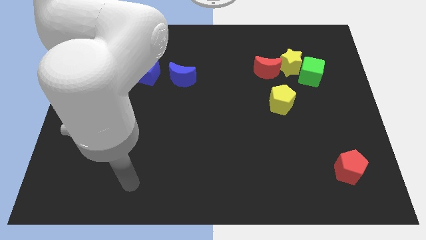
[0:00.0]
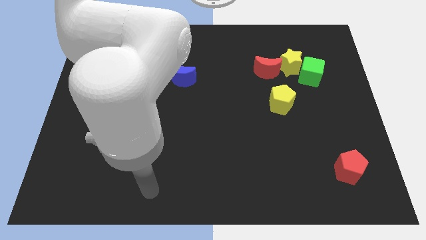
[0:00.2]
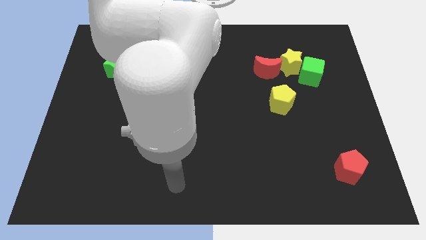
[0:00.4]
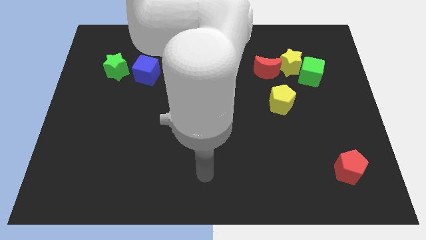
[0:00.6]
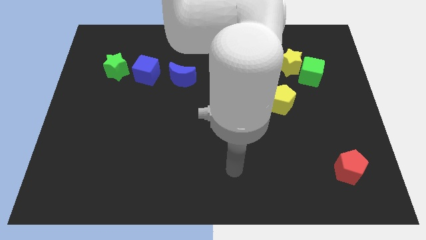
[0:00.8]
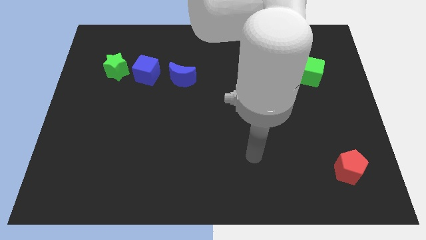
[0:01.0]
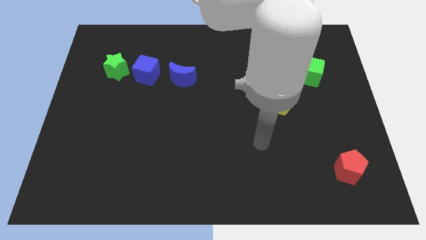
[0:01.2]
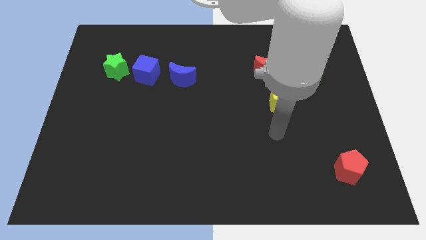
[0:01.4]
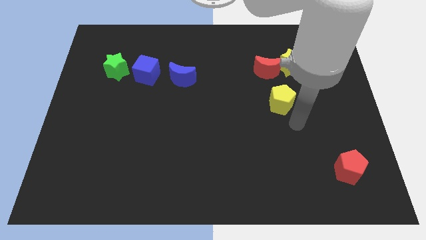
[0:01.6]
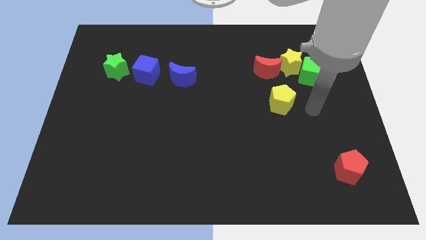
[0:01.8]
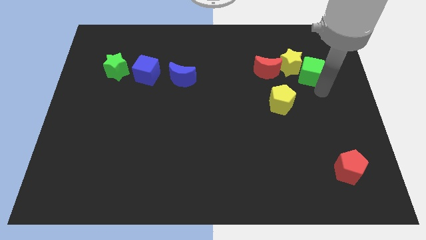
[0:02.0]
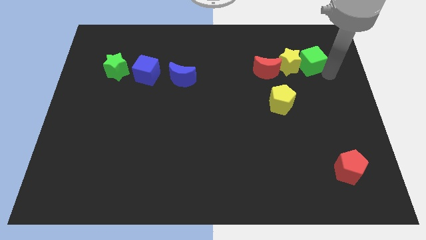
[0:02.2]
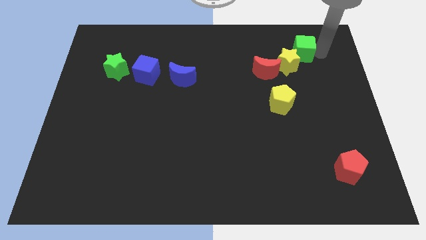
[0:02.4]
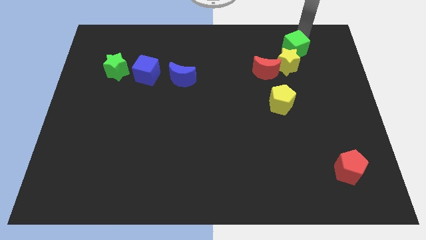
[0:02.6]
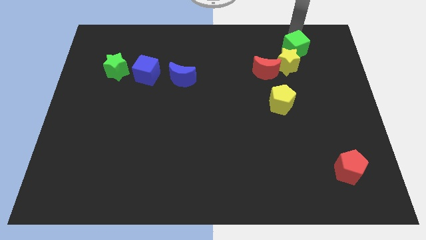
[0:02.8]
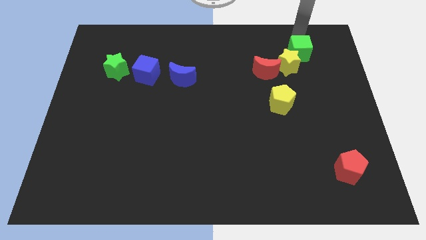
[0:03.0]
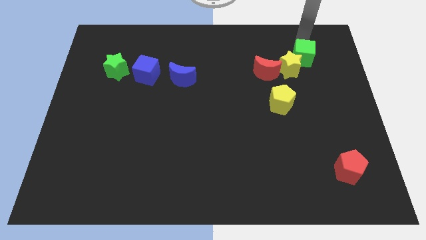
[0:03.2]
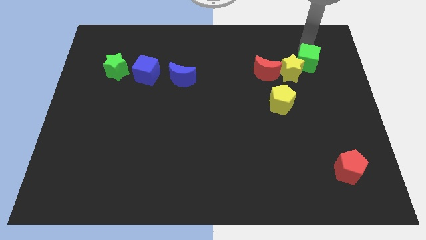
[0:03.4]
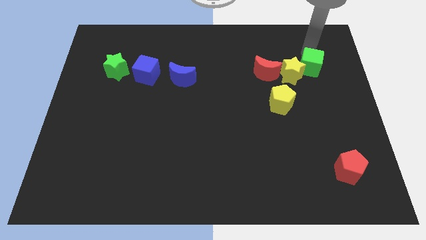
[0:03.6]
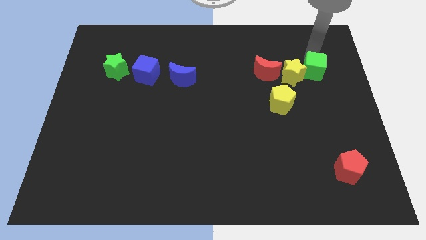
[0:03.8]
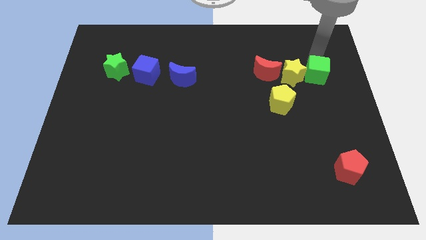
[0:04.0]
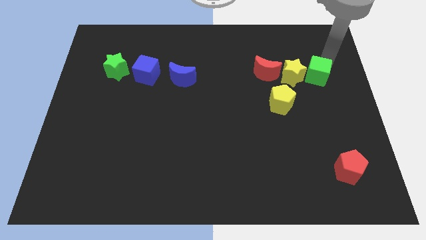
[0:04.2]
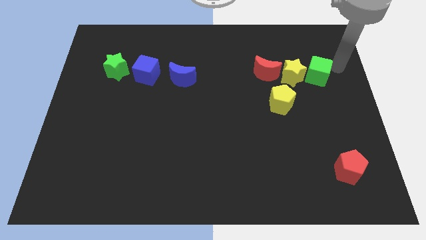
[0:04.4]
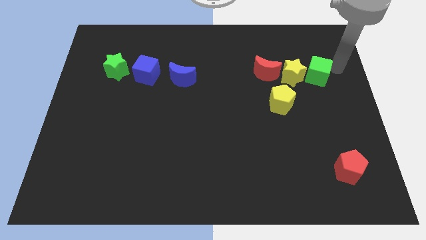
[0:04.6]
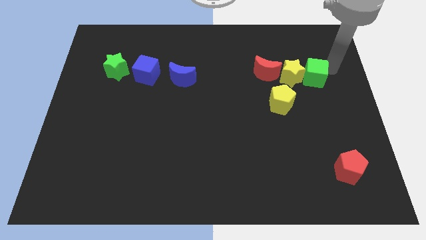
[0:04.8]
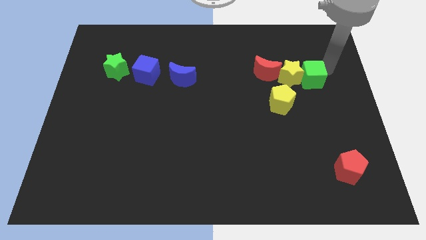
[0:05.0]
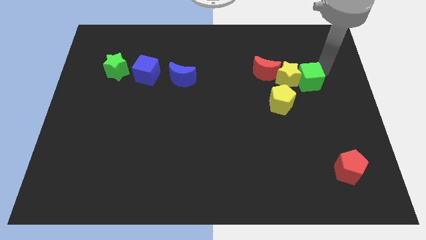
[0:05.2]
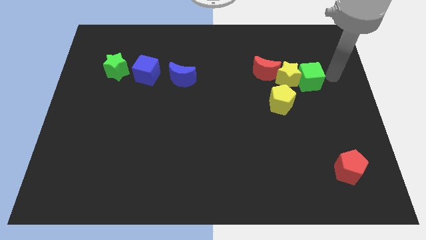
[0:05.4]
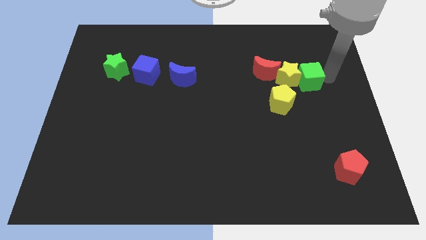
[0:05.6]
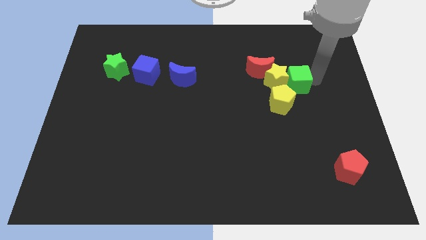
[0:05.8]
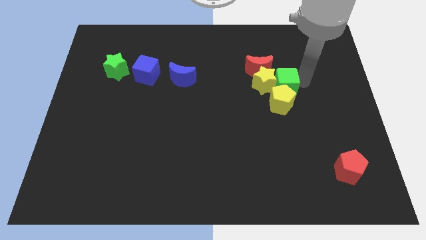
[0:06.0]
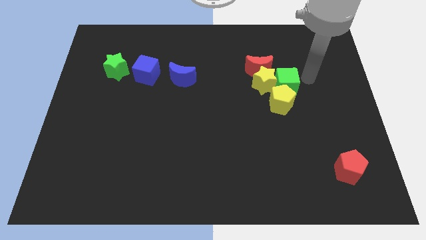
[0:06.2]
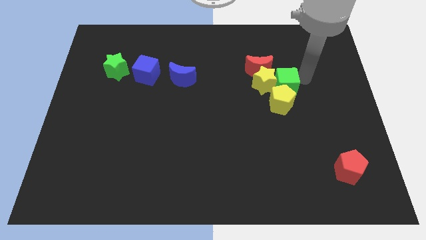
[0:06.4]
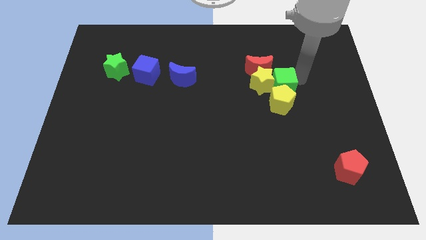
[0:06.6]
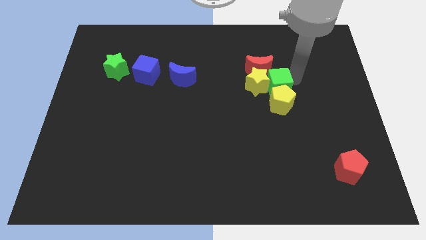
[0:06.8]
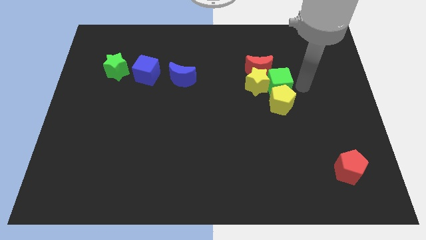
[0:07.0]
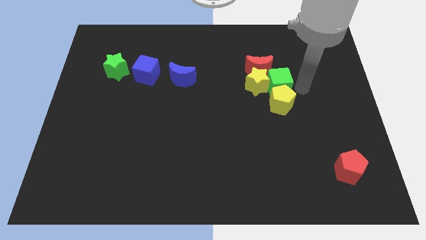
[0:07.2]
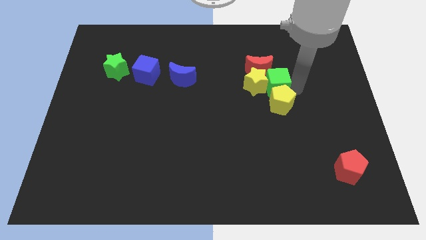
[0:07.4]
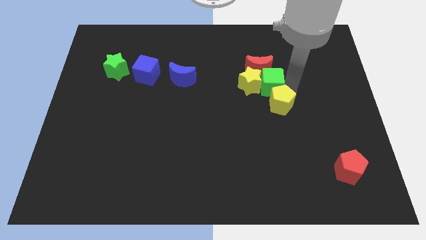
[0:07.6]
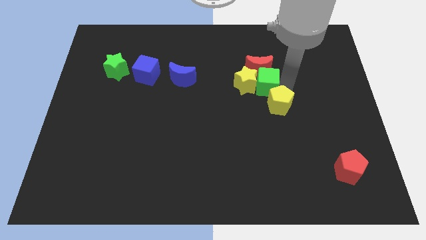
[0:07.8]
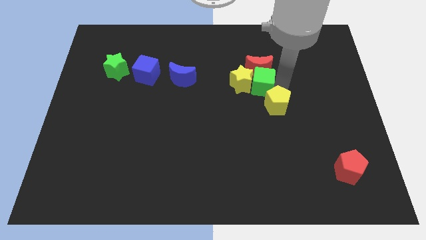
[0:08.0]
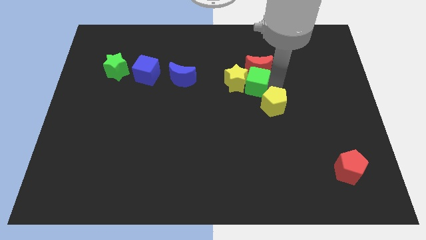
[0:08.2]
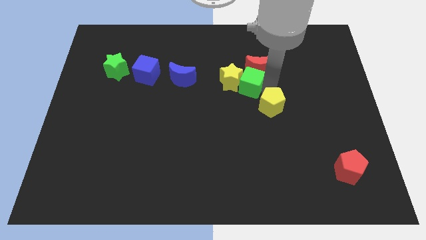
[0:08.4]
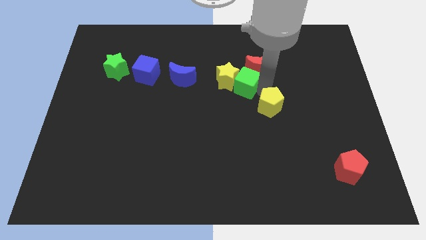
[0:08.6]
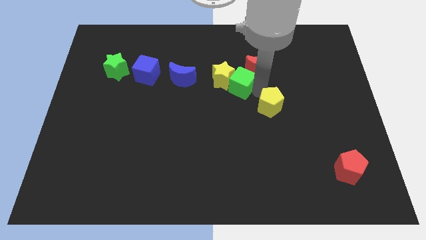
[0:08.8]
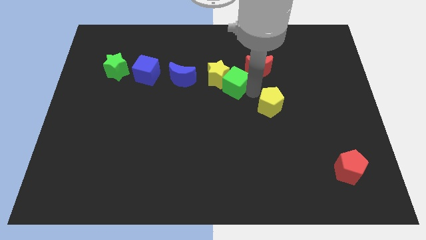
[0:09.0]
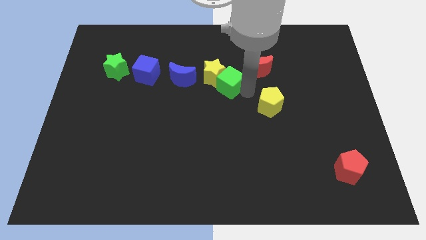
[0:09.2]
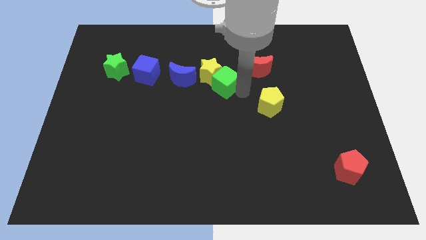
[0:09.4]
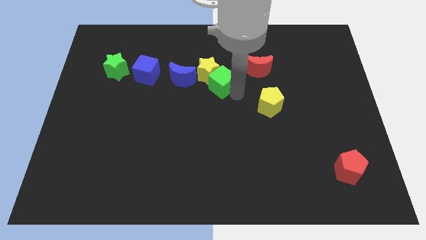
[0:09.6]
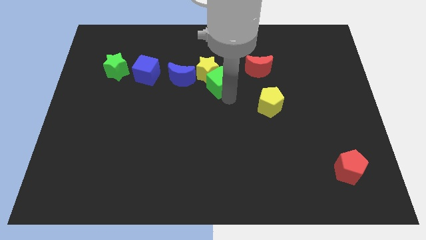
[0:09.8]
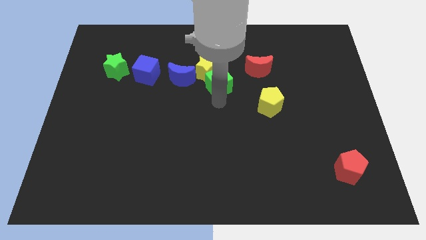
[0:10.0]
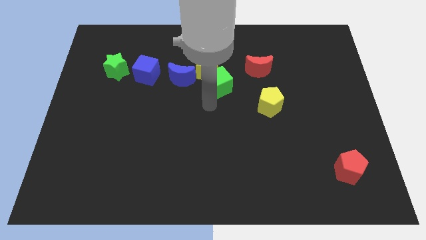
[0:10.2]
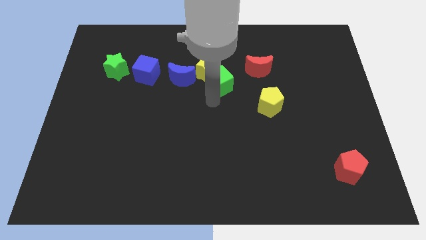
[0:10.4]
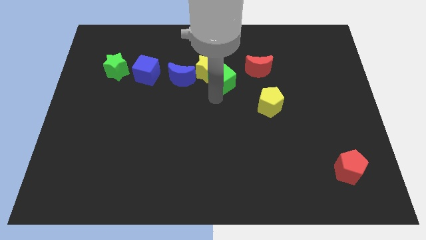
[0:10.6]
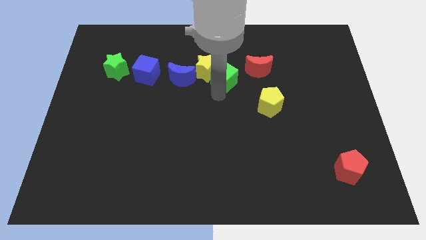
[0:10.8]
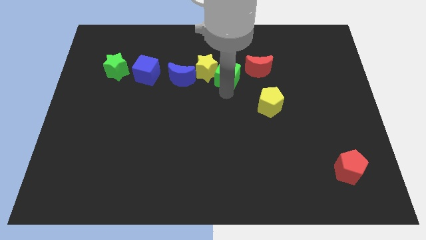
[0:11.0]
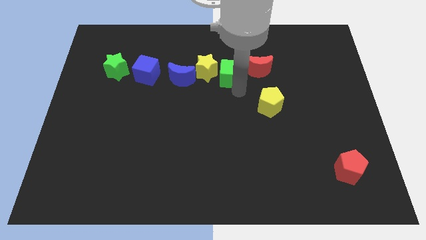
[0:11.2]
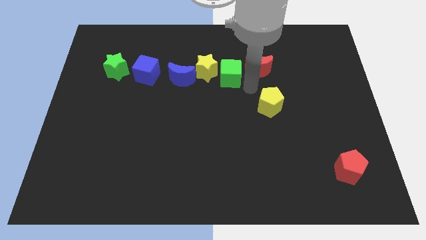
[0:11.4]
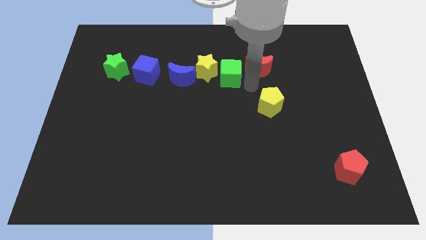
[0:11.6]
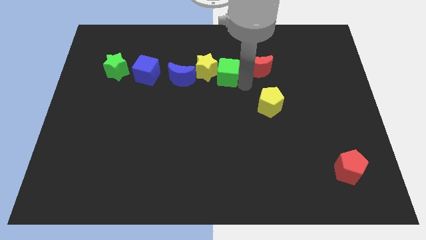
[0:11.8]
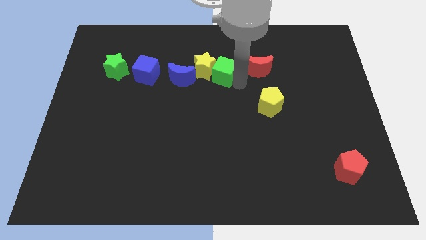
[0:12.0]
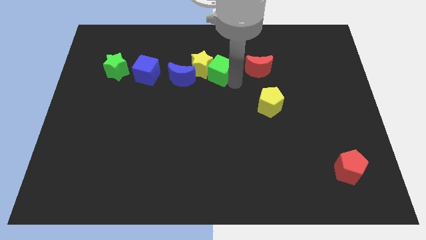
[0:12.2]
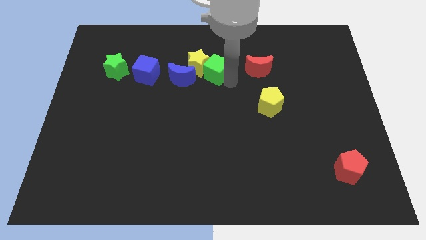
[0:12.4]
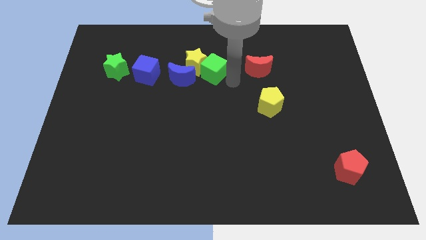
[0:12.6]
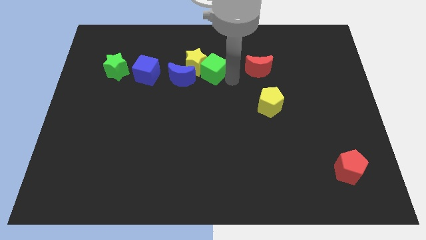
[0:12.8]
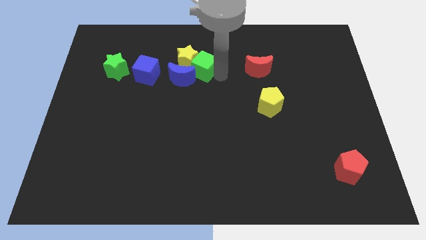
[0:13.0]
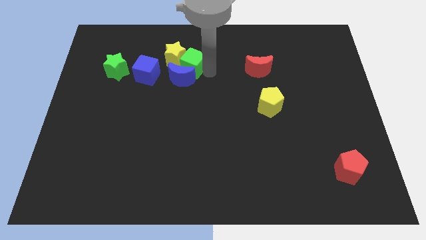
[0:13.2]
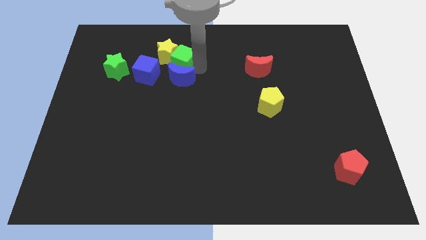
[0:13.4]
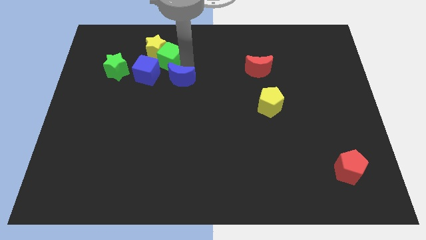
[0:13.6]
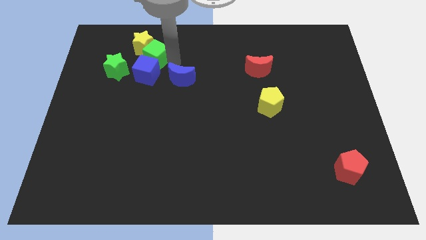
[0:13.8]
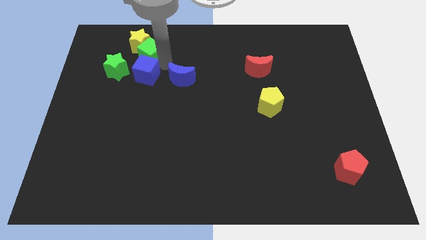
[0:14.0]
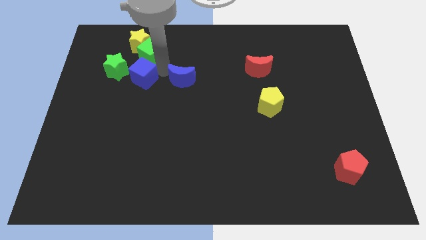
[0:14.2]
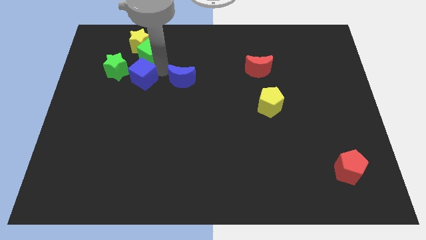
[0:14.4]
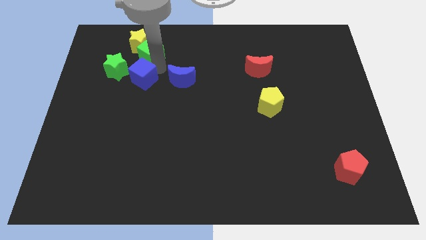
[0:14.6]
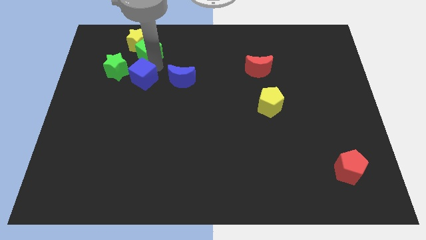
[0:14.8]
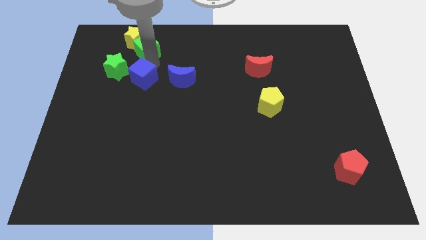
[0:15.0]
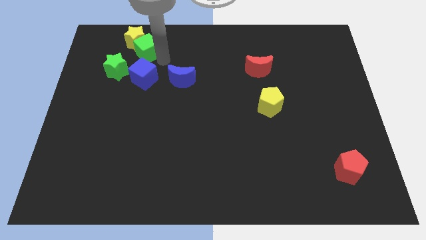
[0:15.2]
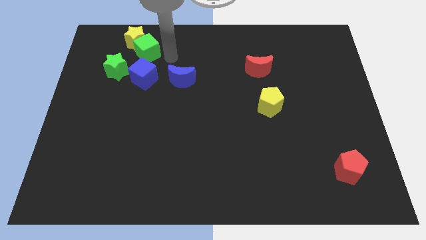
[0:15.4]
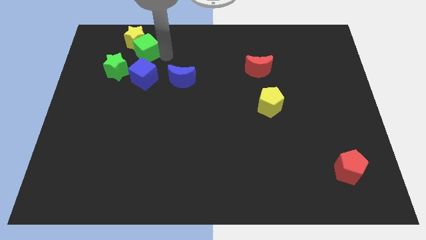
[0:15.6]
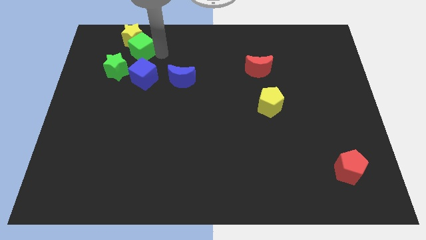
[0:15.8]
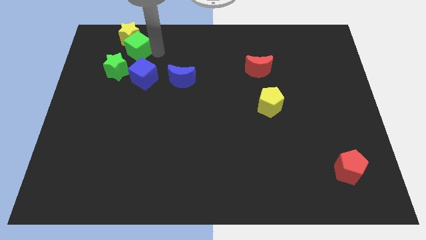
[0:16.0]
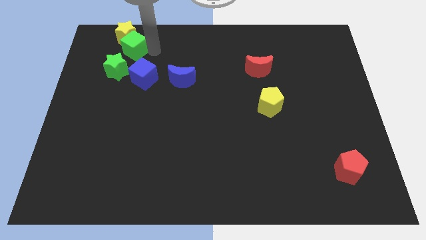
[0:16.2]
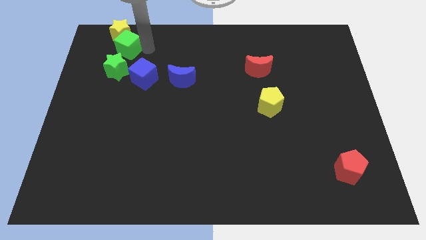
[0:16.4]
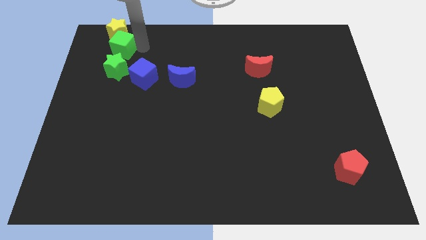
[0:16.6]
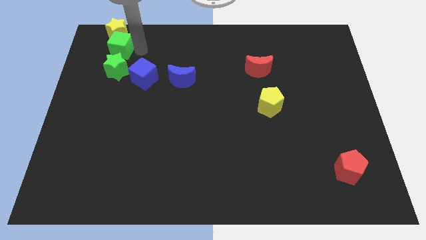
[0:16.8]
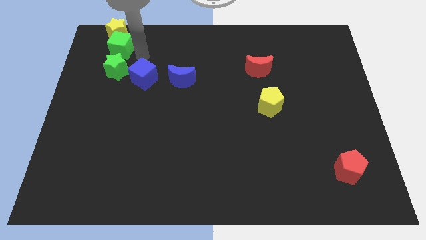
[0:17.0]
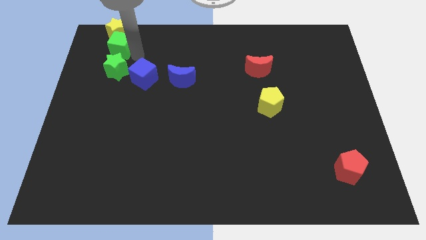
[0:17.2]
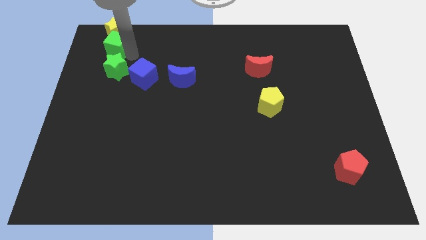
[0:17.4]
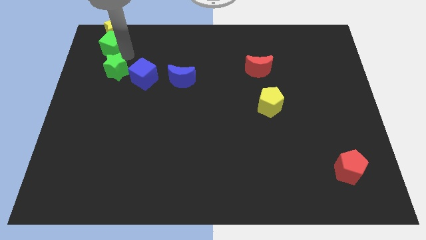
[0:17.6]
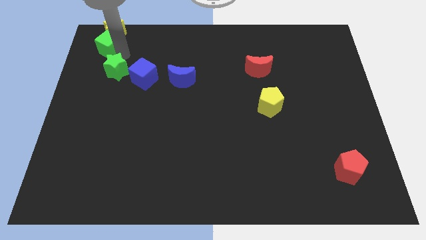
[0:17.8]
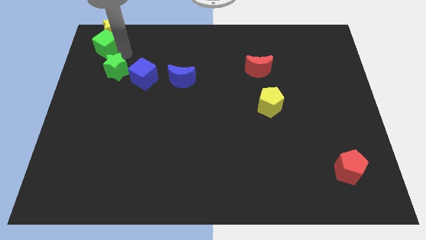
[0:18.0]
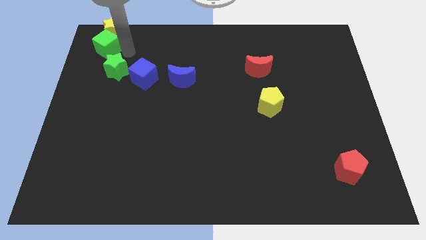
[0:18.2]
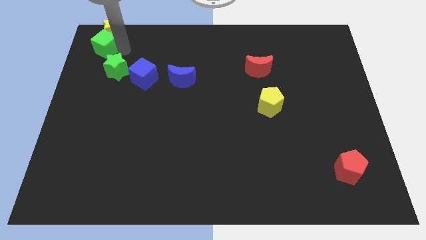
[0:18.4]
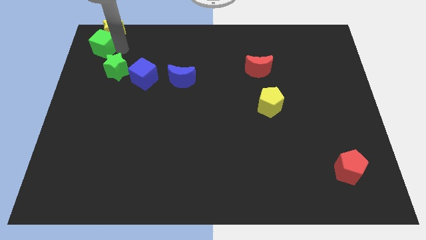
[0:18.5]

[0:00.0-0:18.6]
move the green cube to the top left
